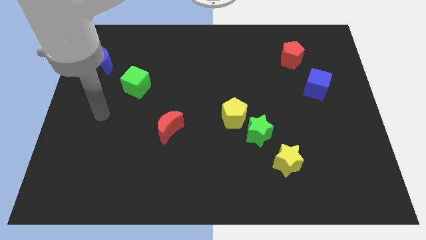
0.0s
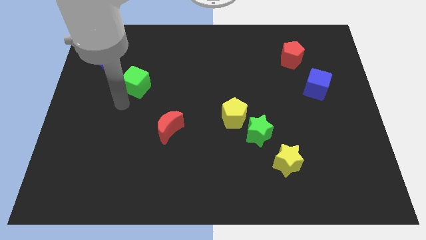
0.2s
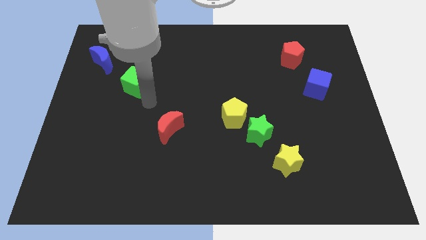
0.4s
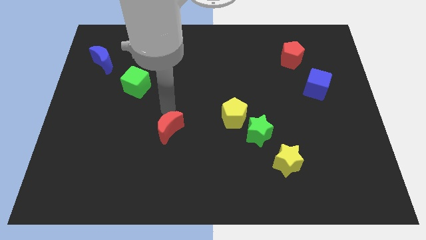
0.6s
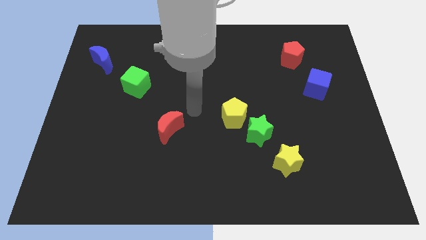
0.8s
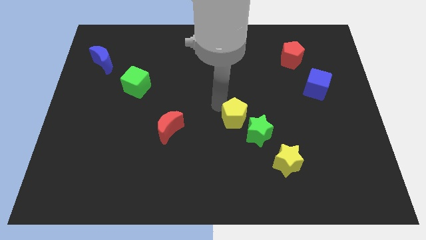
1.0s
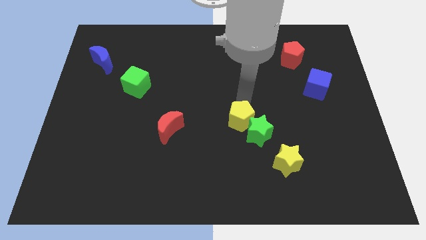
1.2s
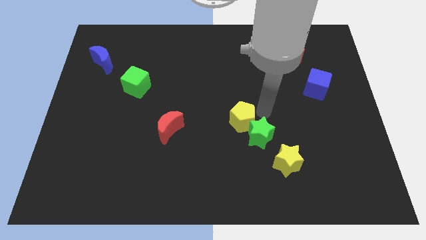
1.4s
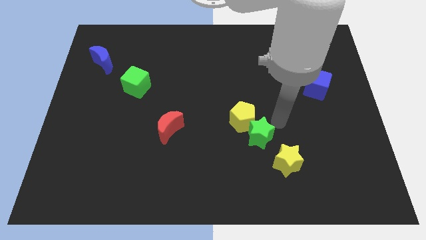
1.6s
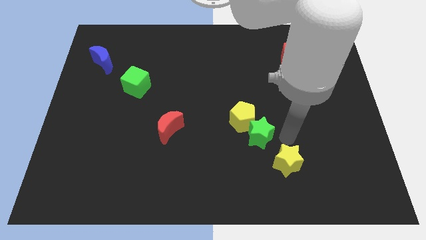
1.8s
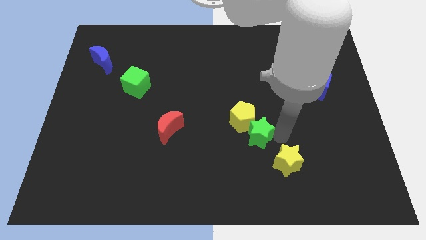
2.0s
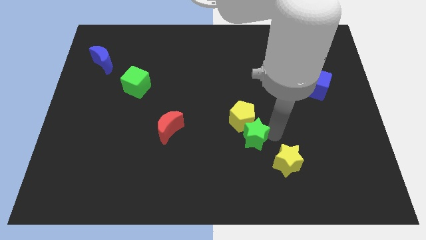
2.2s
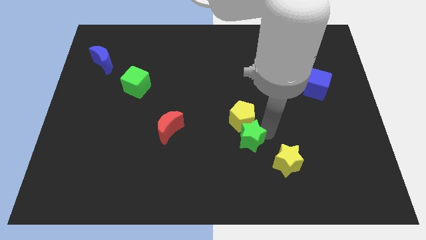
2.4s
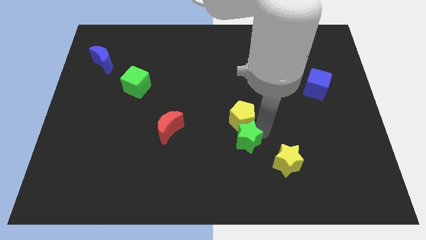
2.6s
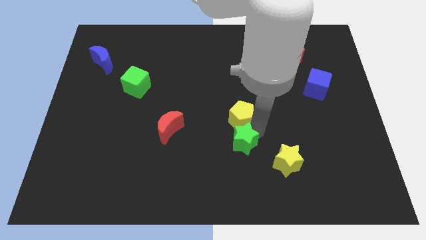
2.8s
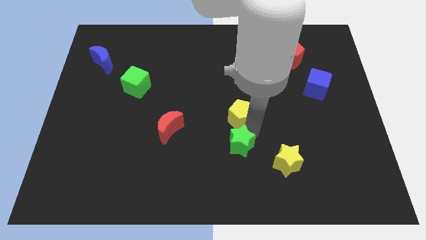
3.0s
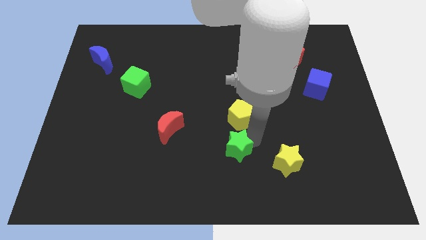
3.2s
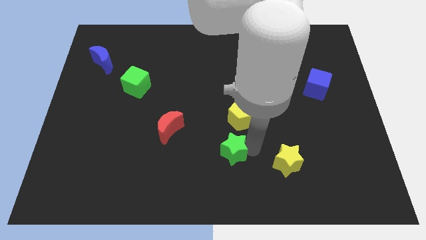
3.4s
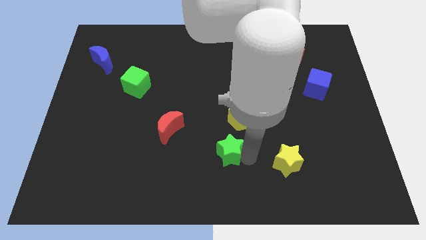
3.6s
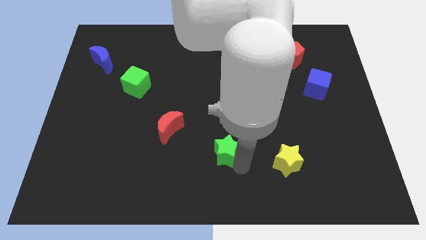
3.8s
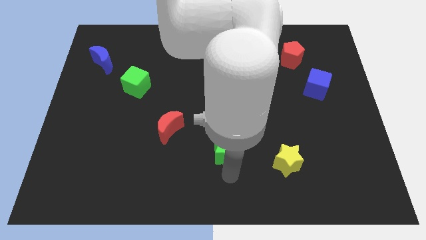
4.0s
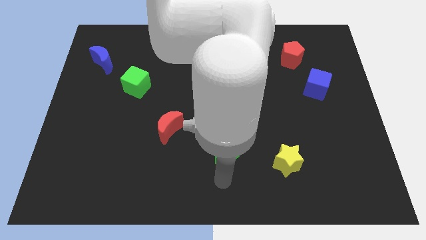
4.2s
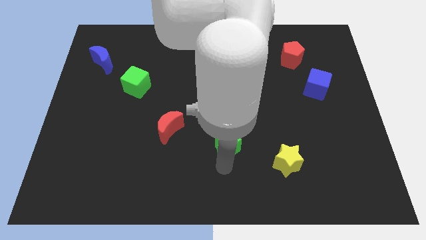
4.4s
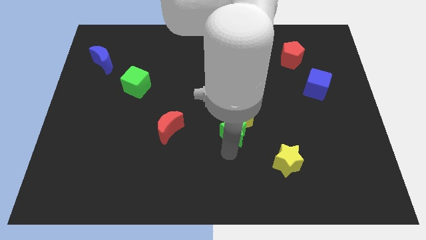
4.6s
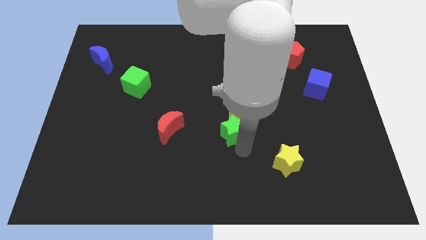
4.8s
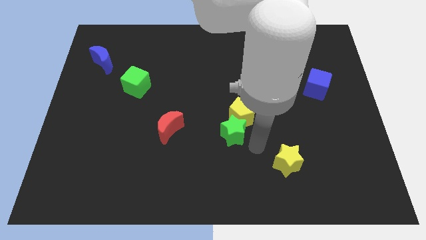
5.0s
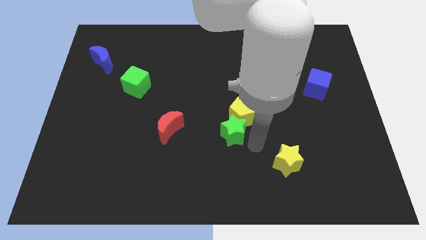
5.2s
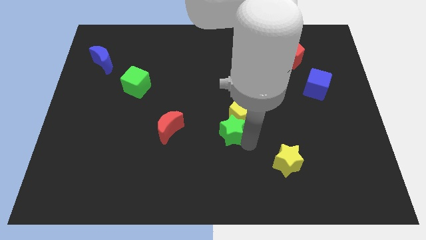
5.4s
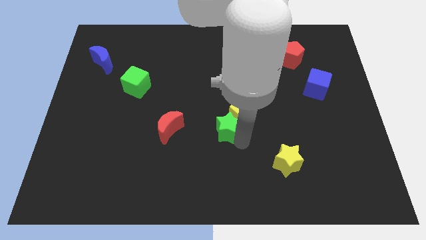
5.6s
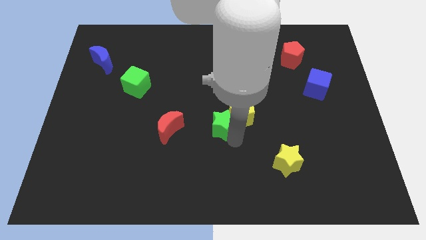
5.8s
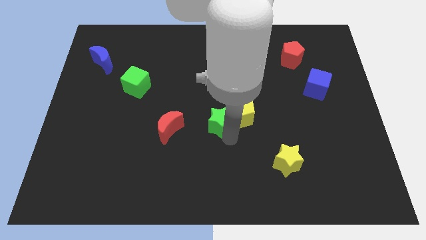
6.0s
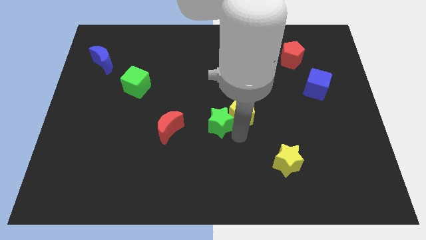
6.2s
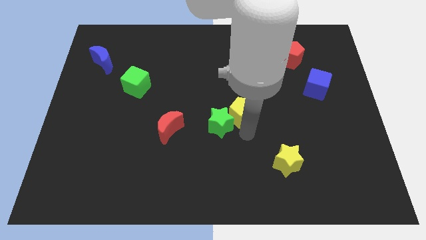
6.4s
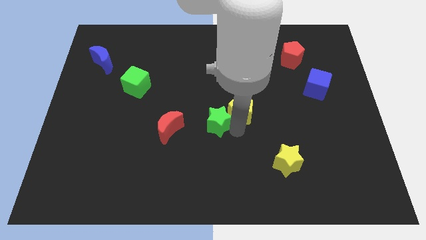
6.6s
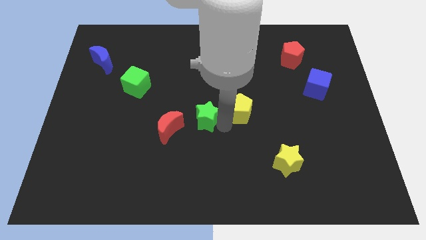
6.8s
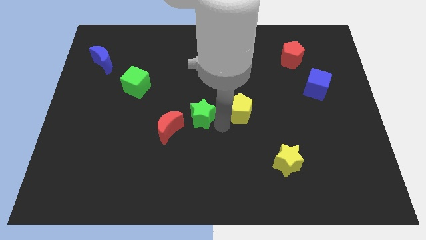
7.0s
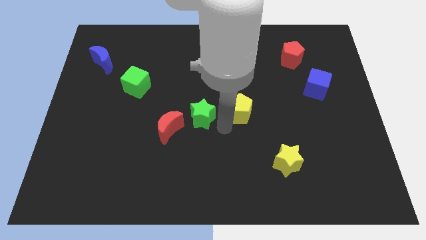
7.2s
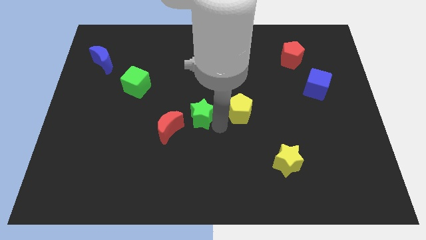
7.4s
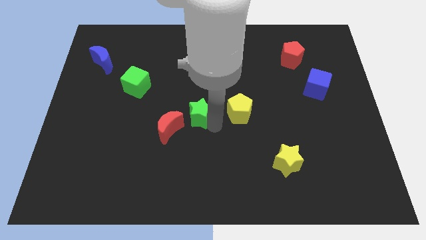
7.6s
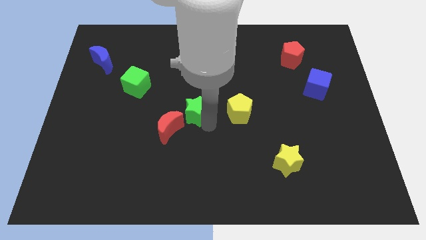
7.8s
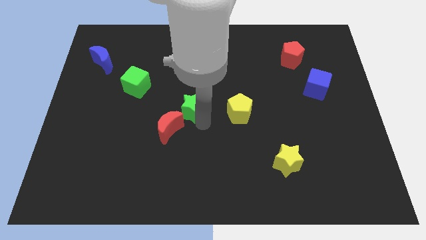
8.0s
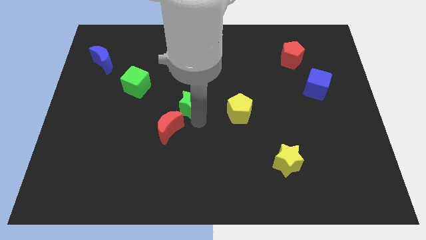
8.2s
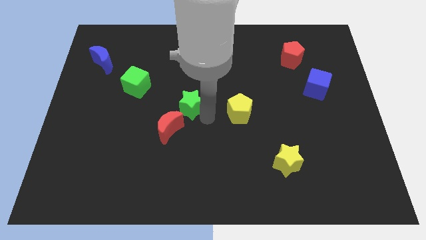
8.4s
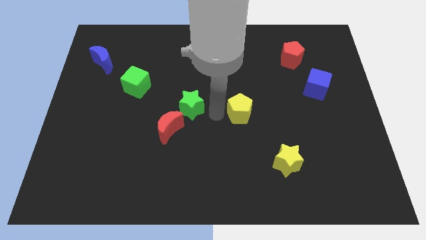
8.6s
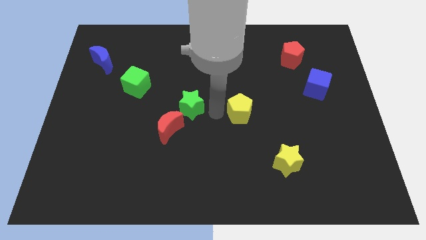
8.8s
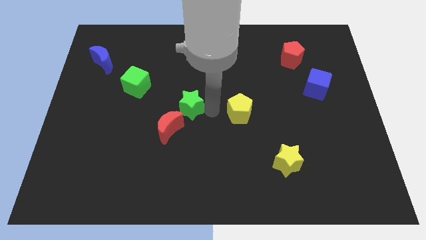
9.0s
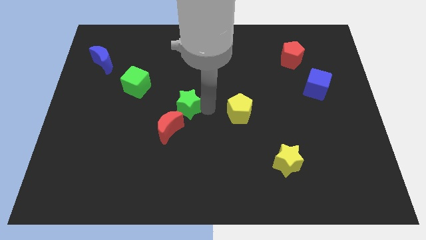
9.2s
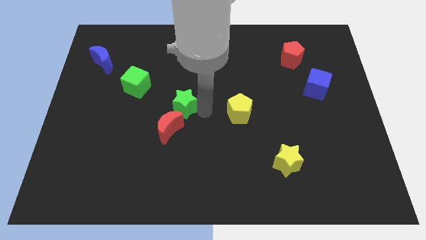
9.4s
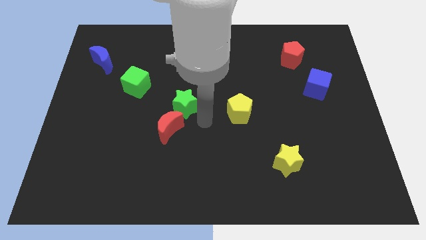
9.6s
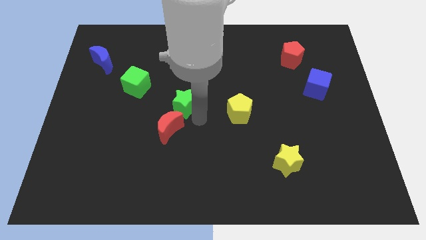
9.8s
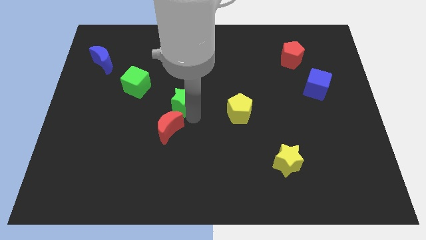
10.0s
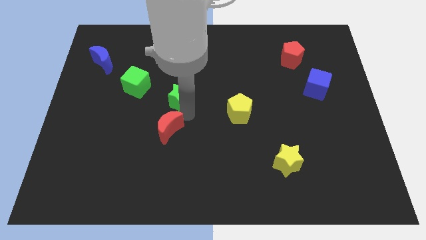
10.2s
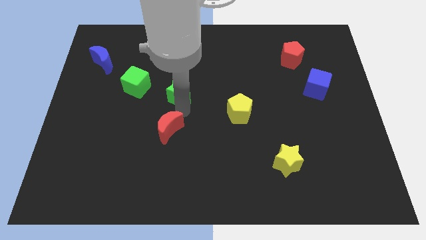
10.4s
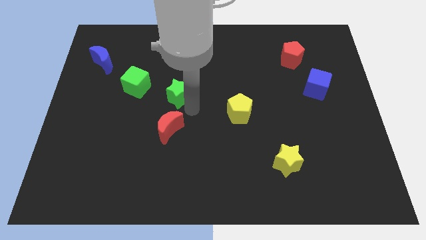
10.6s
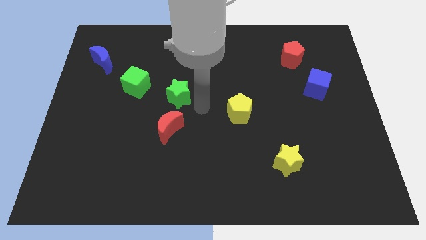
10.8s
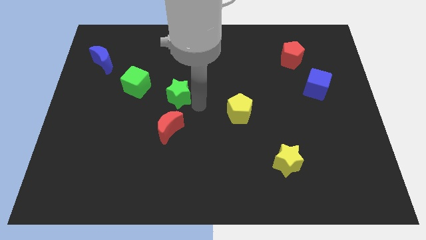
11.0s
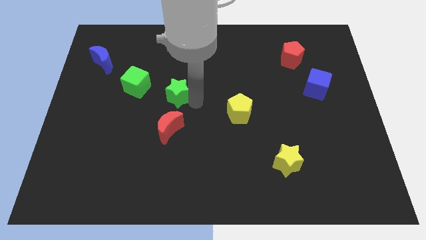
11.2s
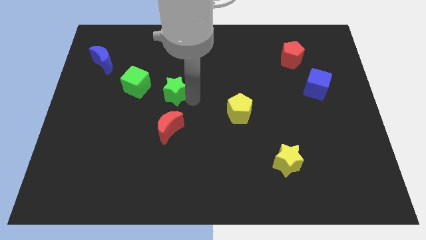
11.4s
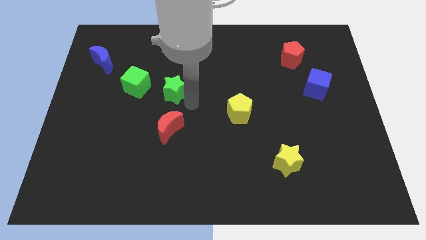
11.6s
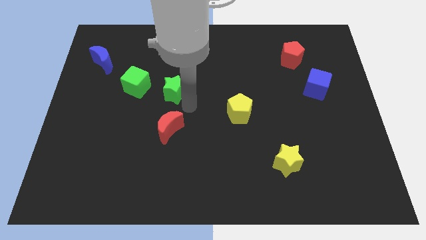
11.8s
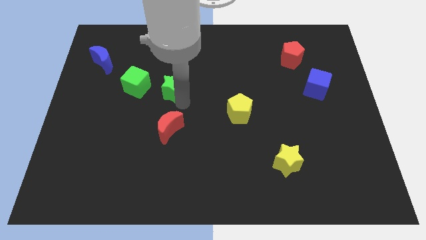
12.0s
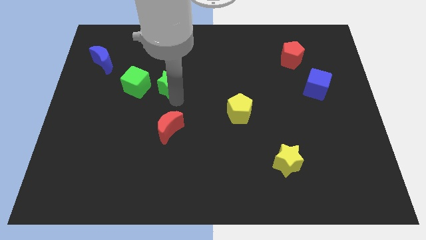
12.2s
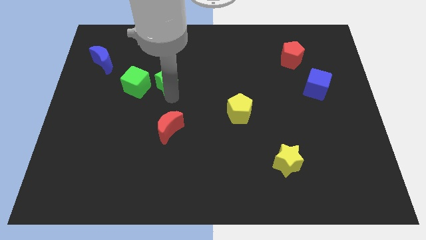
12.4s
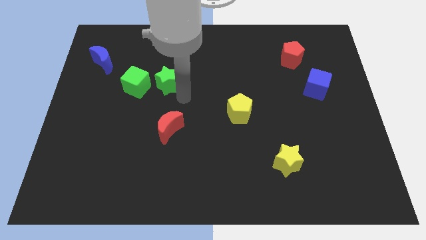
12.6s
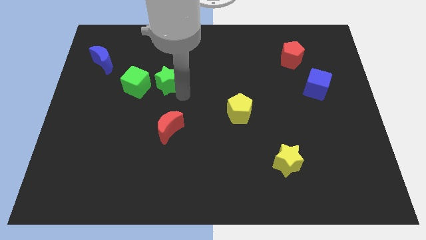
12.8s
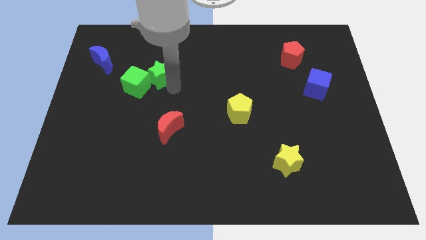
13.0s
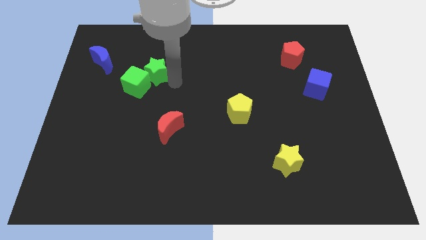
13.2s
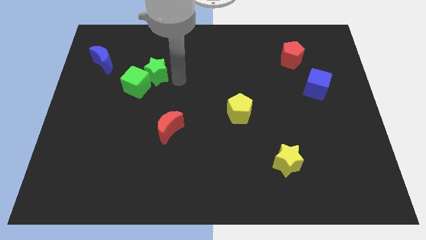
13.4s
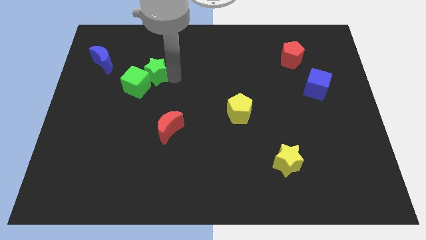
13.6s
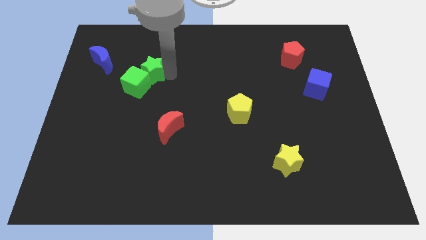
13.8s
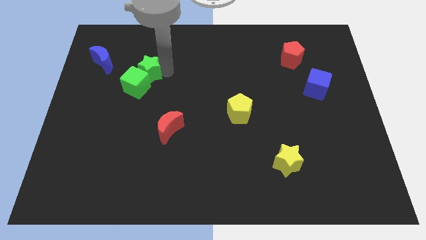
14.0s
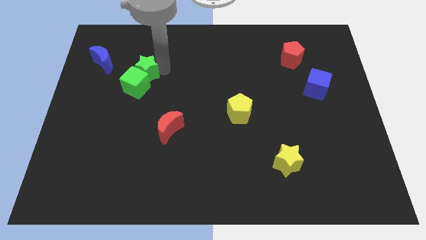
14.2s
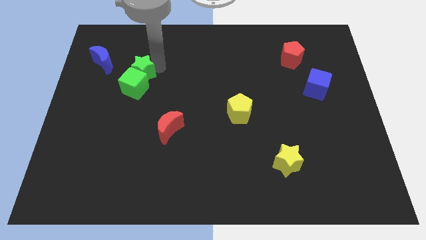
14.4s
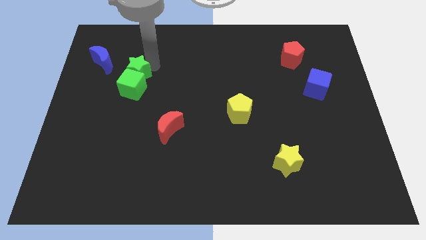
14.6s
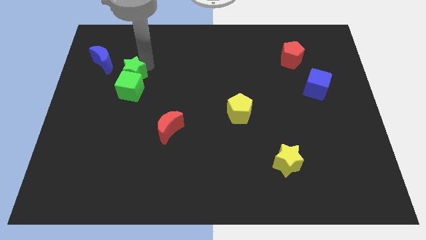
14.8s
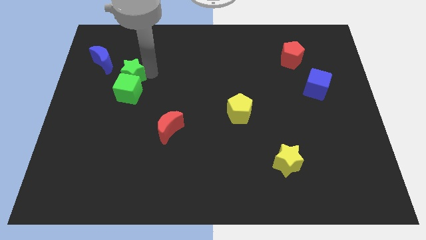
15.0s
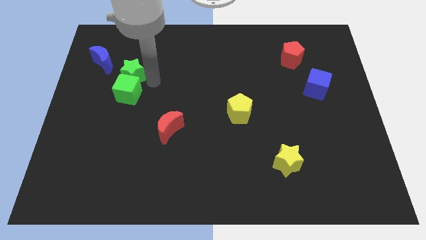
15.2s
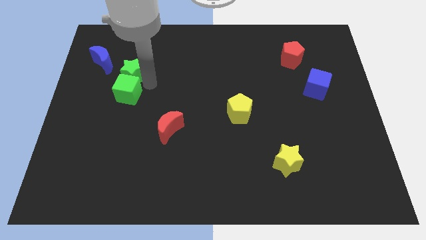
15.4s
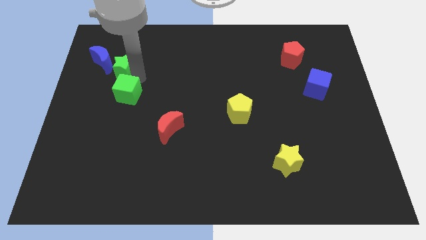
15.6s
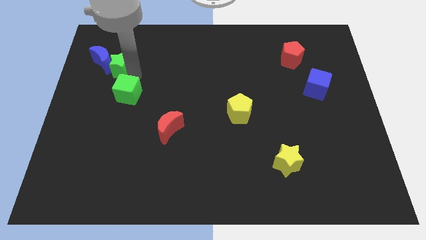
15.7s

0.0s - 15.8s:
put the green star towards the blue moon
